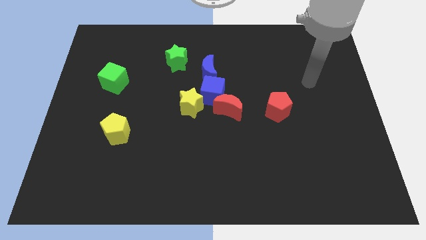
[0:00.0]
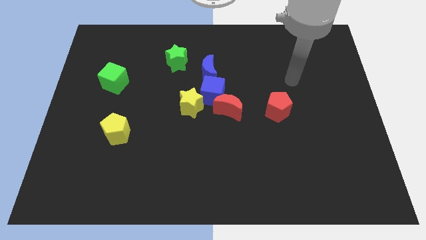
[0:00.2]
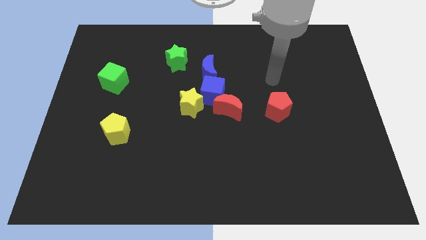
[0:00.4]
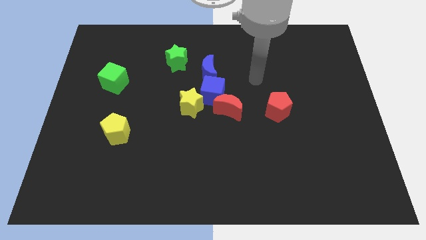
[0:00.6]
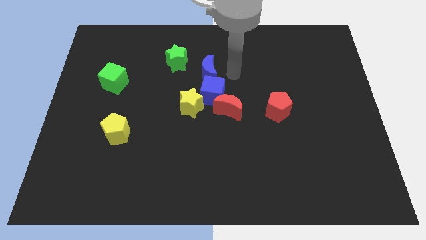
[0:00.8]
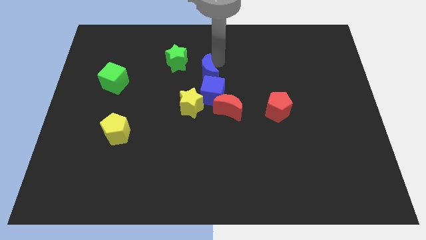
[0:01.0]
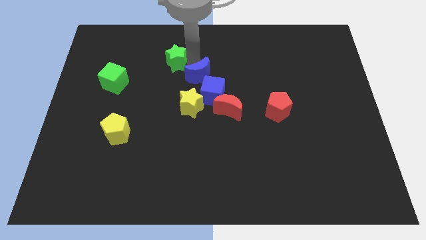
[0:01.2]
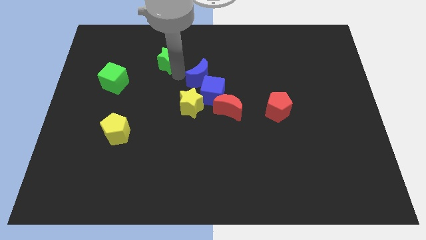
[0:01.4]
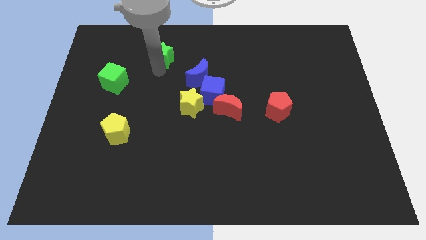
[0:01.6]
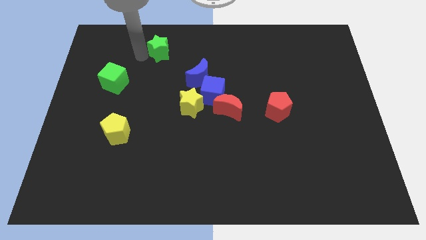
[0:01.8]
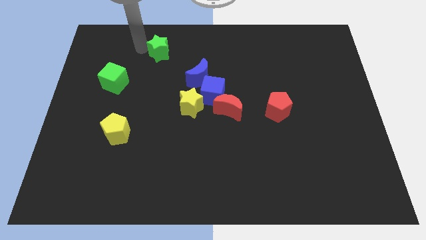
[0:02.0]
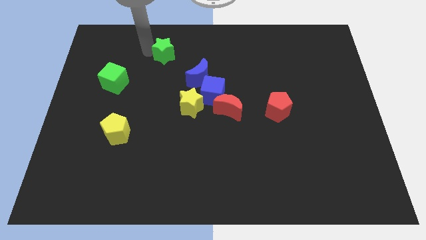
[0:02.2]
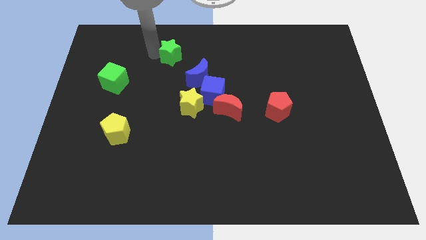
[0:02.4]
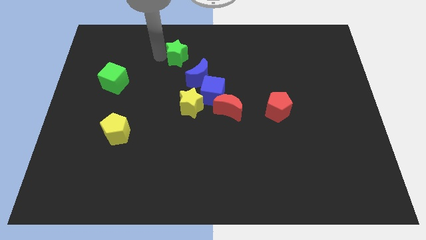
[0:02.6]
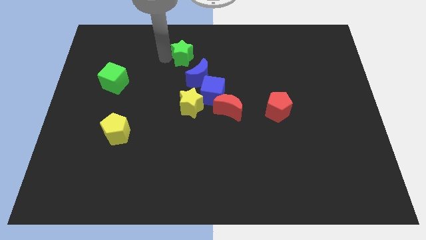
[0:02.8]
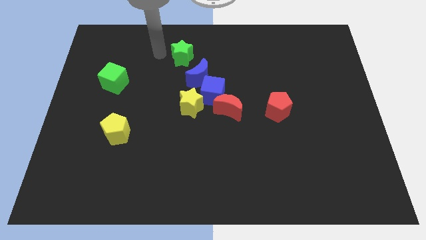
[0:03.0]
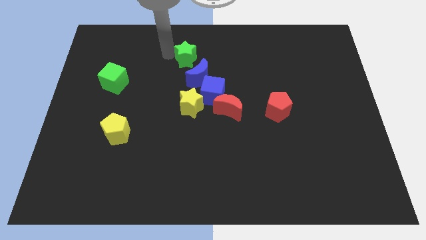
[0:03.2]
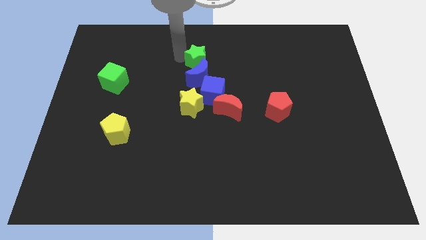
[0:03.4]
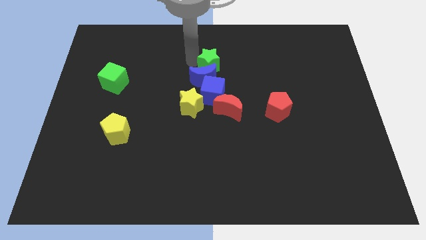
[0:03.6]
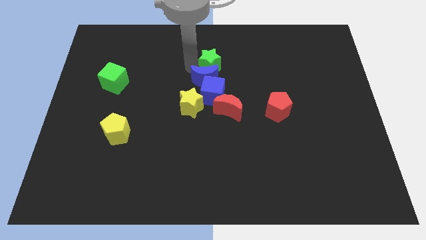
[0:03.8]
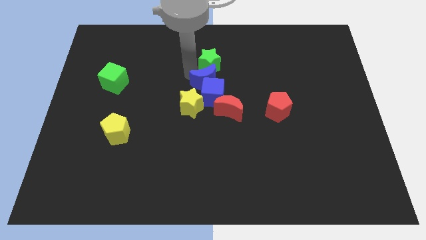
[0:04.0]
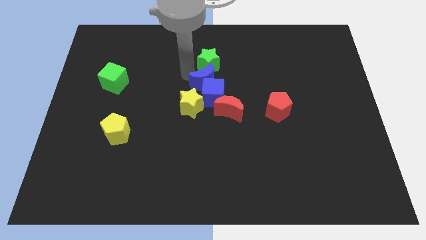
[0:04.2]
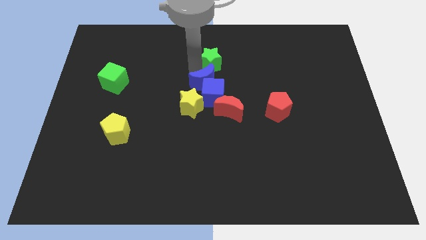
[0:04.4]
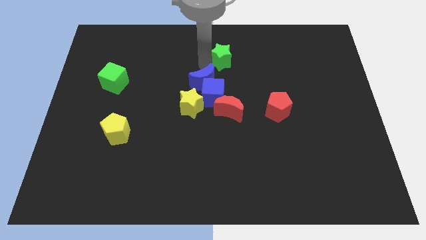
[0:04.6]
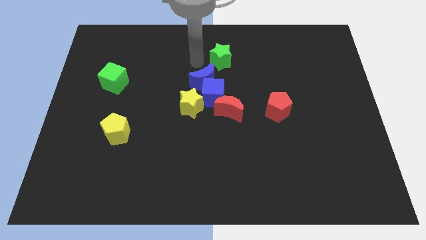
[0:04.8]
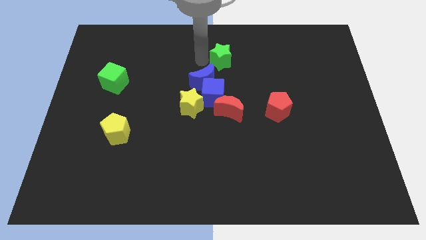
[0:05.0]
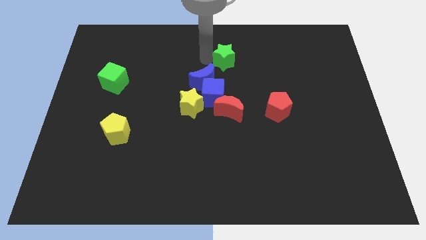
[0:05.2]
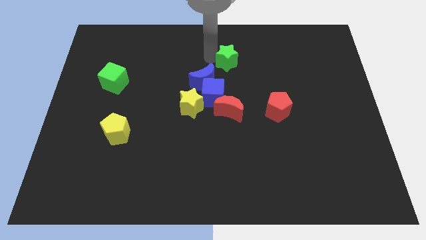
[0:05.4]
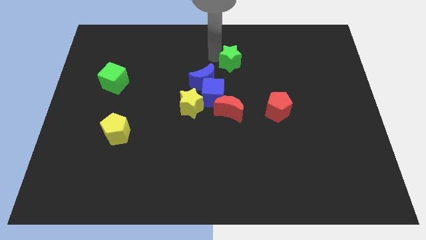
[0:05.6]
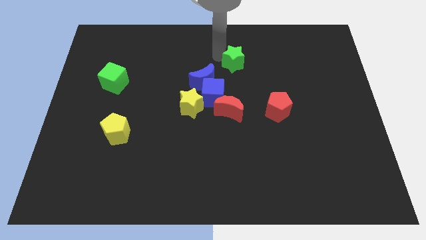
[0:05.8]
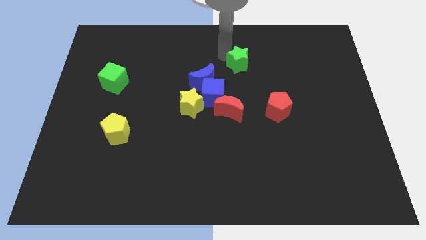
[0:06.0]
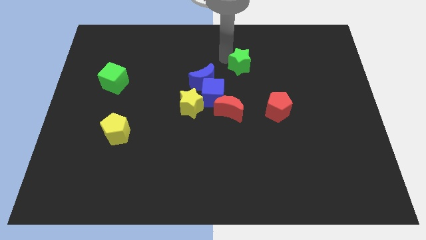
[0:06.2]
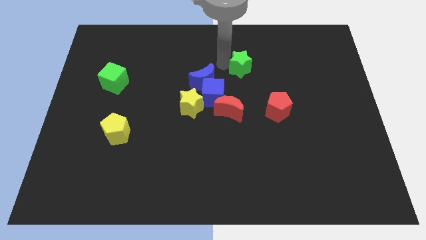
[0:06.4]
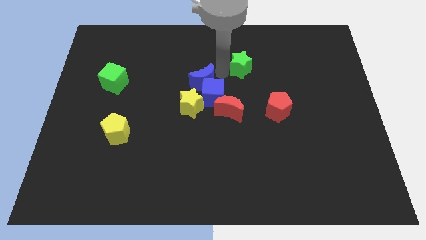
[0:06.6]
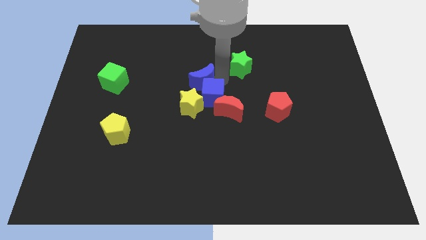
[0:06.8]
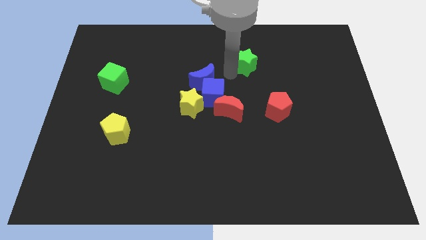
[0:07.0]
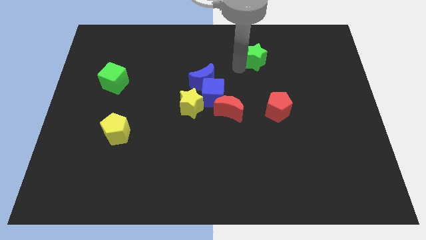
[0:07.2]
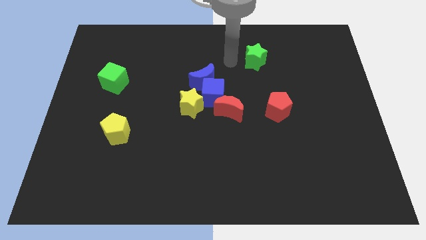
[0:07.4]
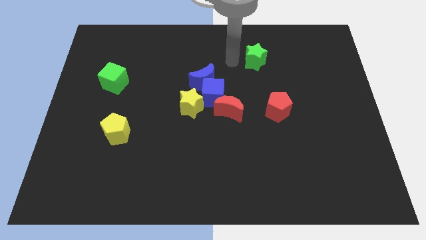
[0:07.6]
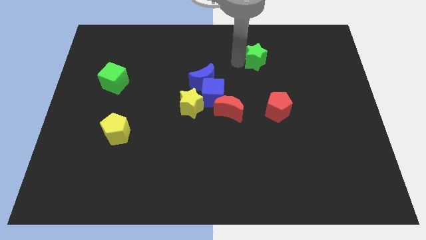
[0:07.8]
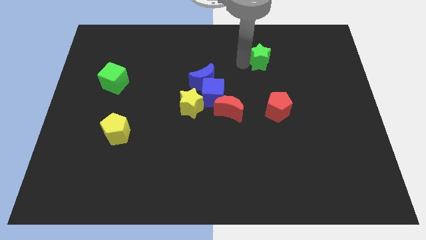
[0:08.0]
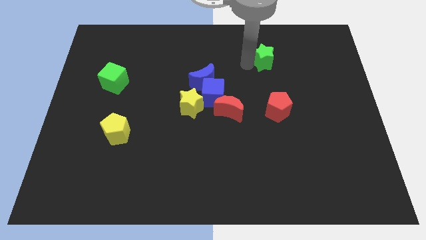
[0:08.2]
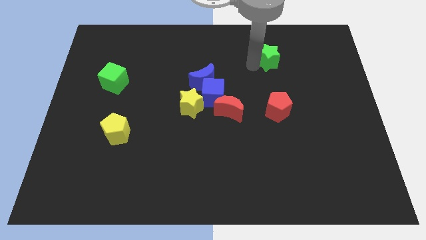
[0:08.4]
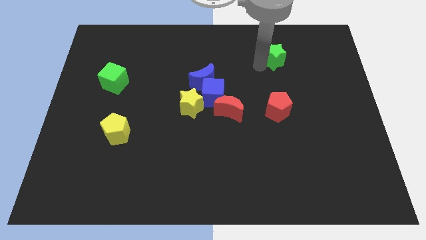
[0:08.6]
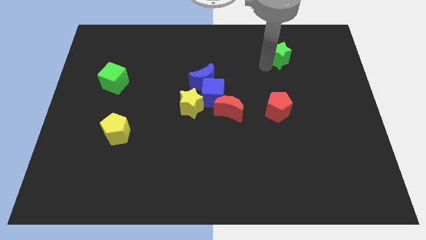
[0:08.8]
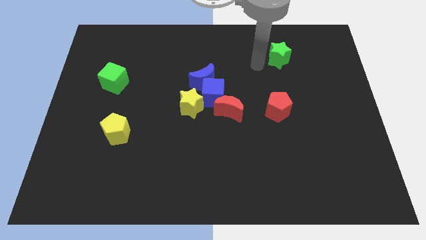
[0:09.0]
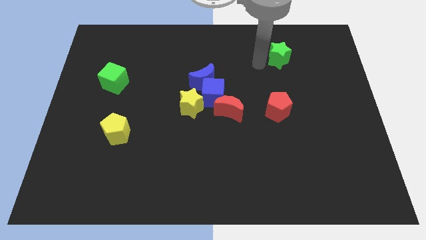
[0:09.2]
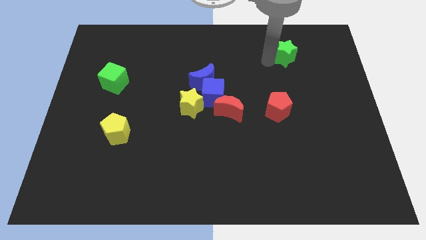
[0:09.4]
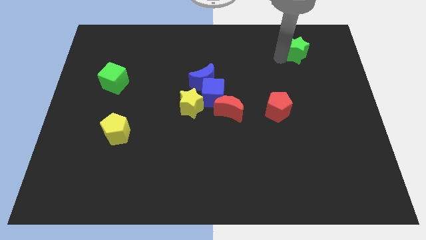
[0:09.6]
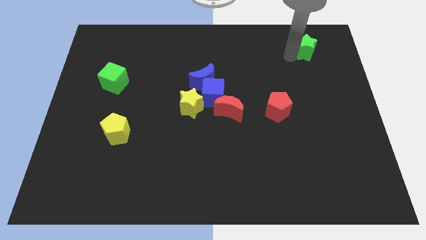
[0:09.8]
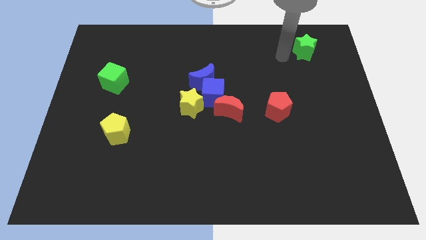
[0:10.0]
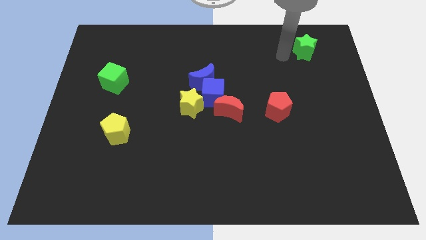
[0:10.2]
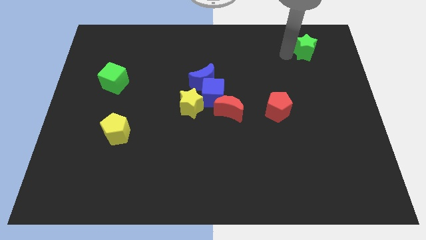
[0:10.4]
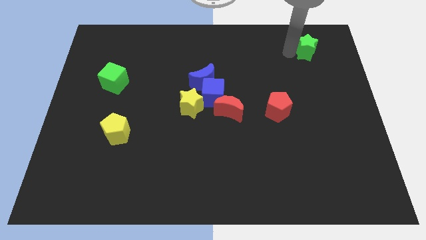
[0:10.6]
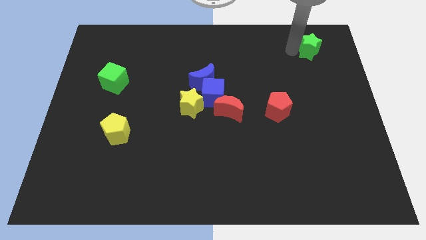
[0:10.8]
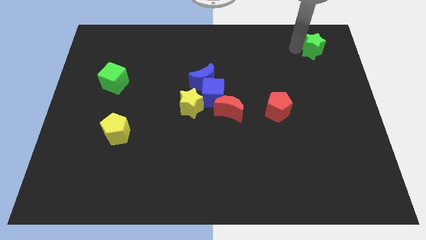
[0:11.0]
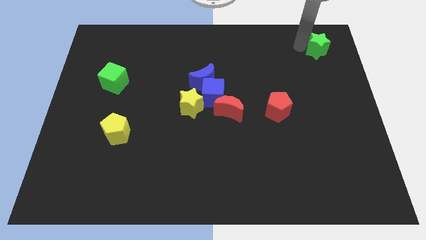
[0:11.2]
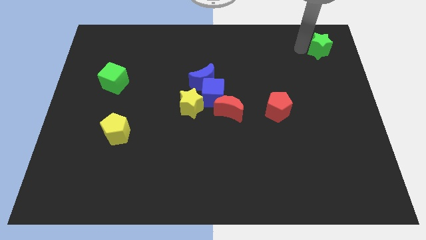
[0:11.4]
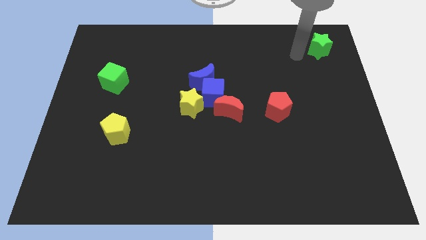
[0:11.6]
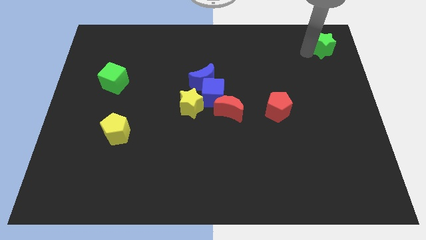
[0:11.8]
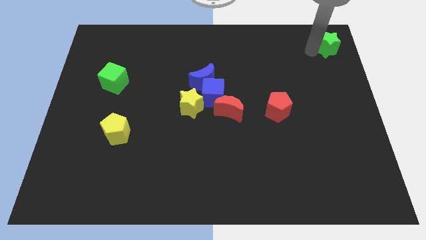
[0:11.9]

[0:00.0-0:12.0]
push the green star to the top right
